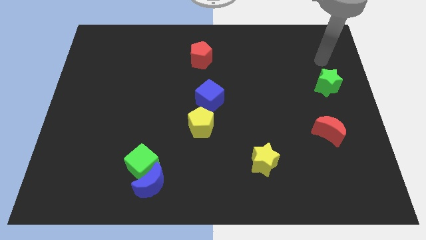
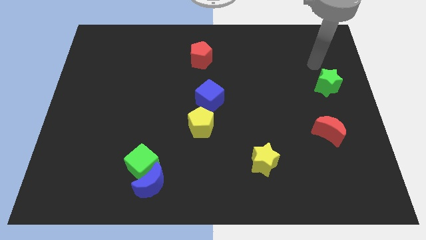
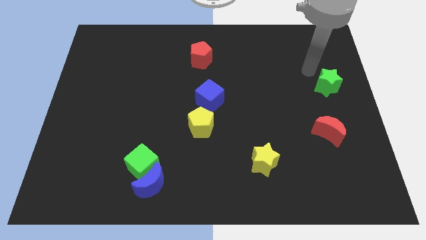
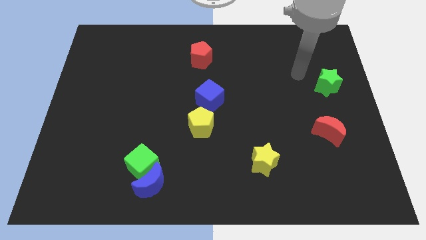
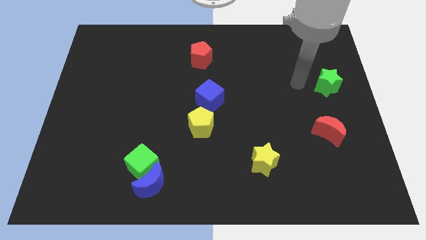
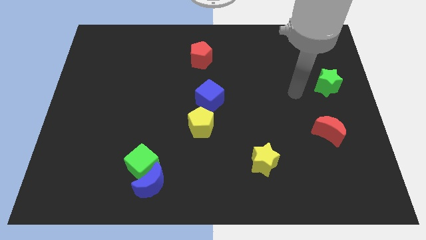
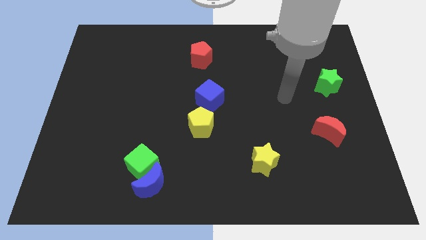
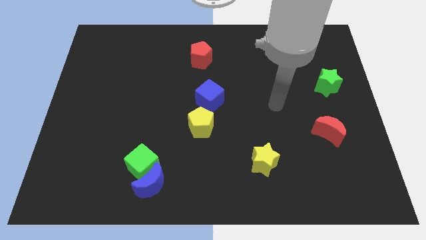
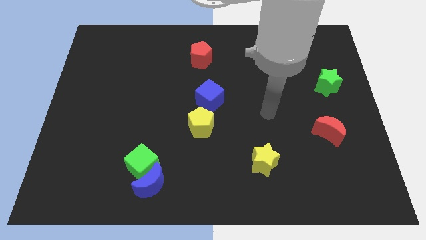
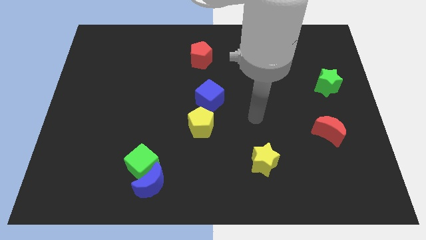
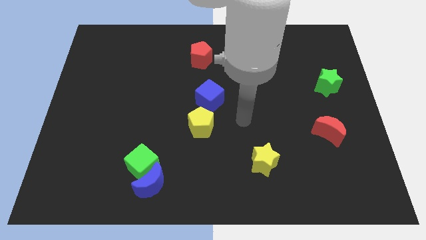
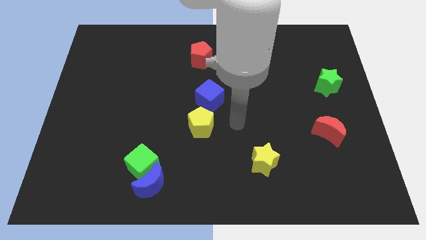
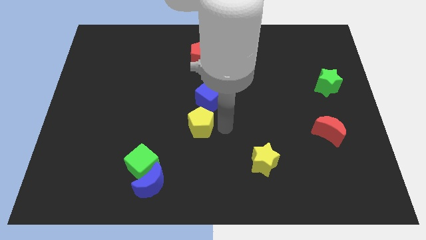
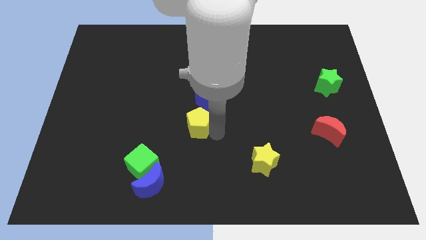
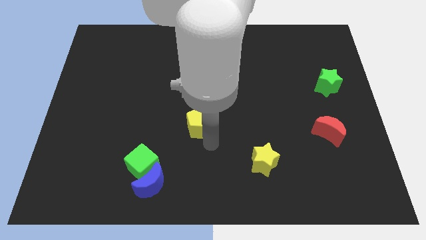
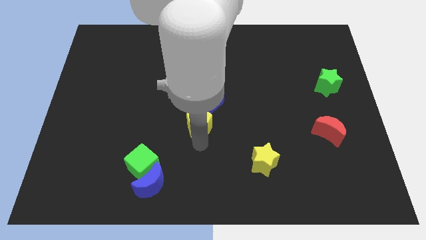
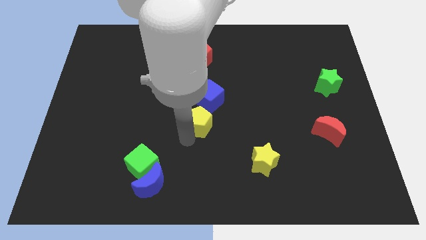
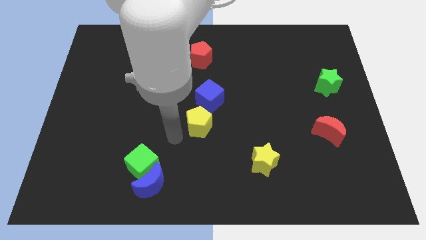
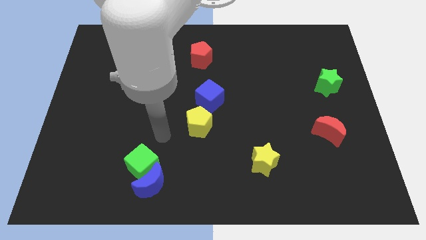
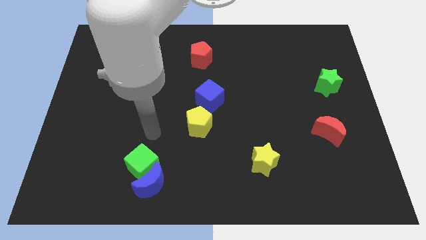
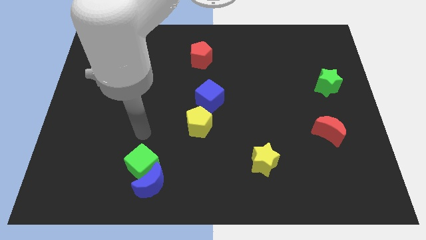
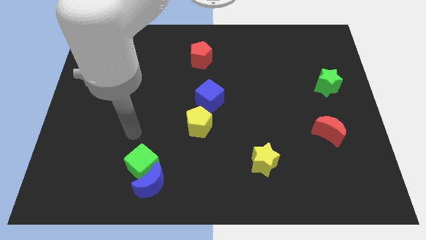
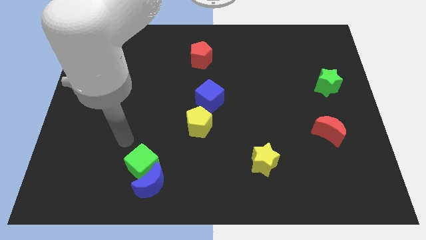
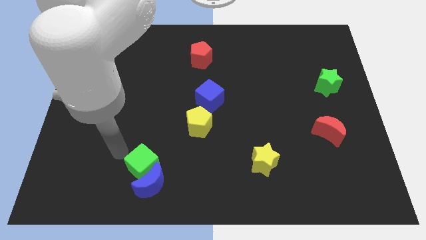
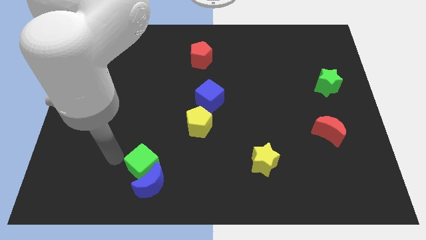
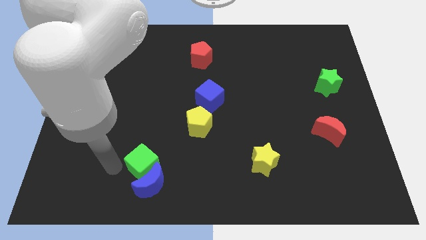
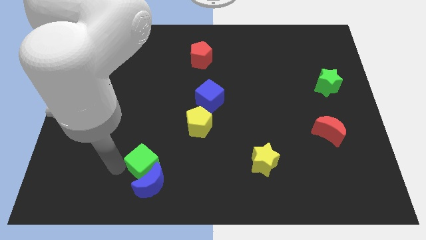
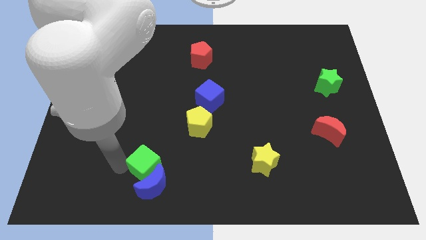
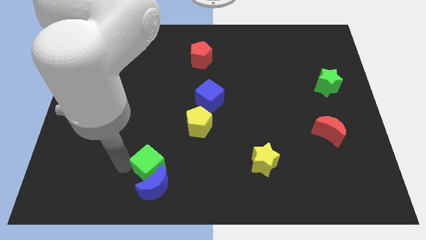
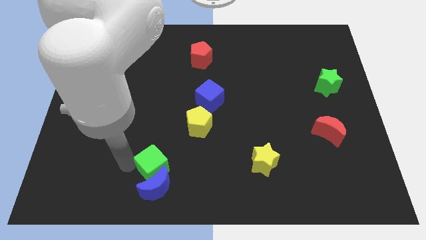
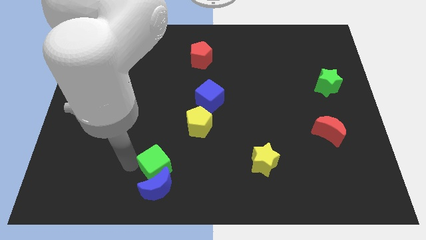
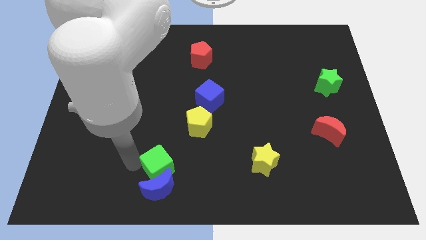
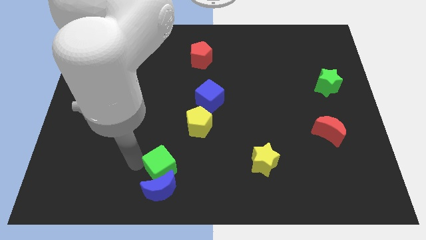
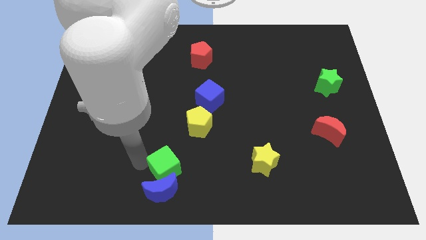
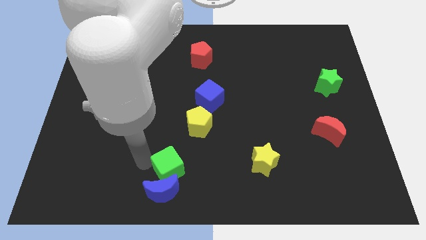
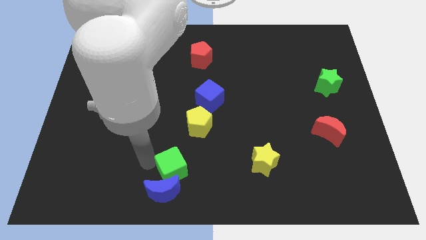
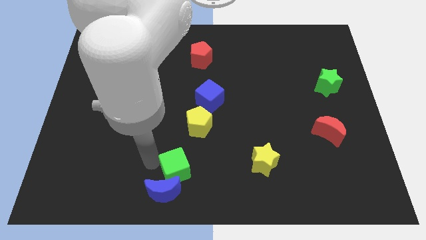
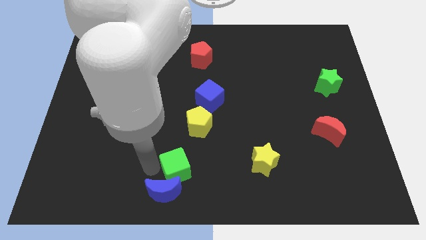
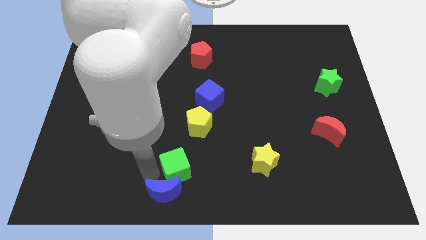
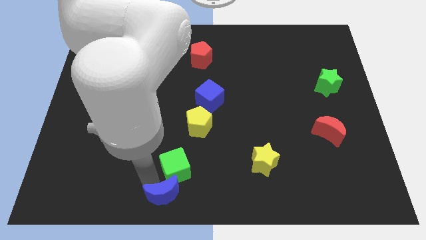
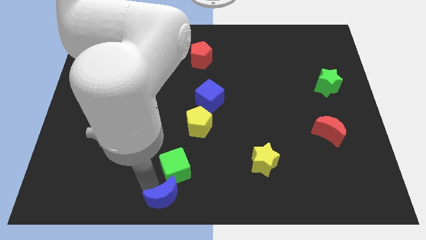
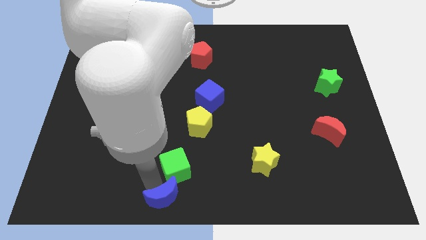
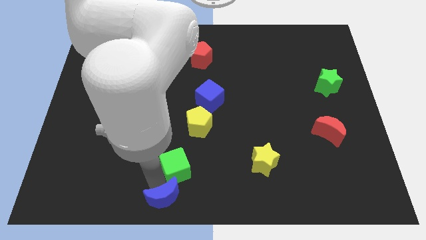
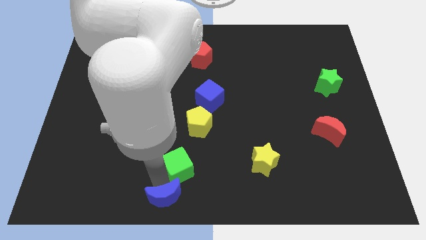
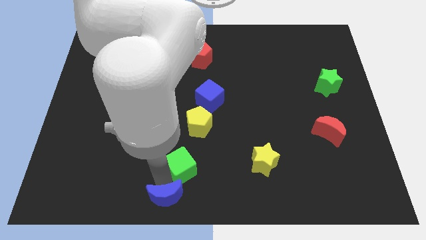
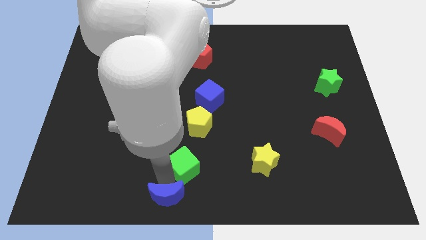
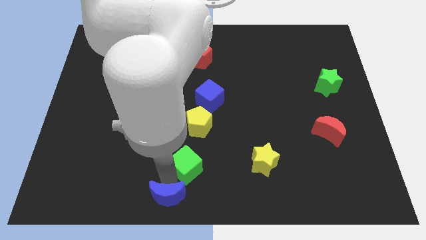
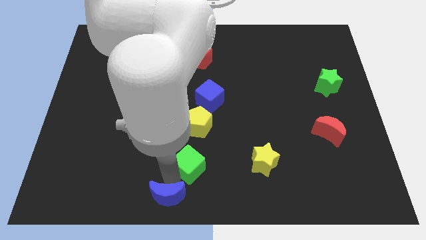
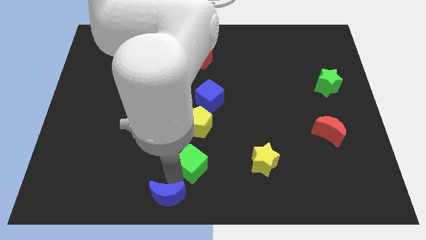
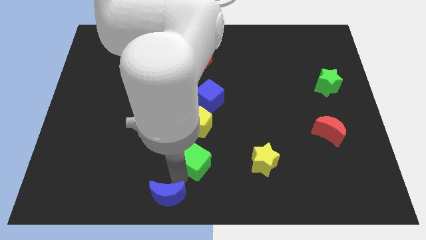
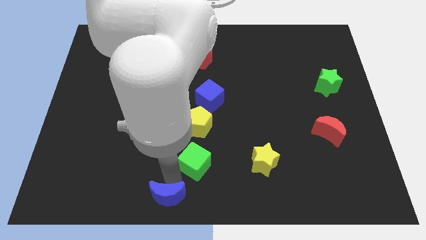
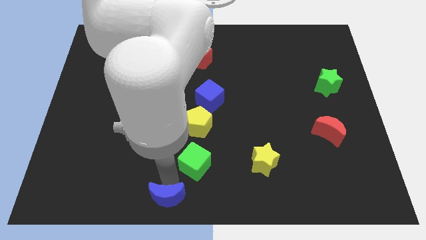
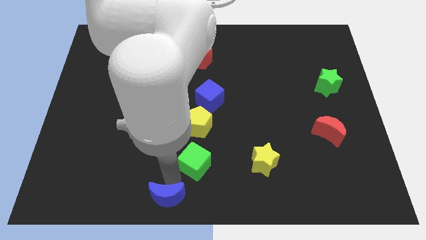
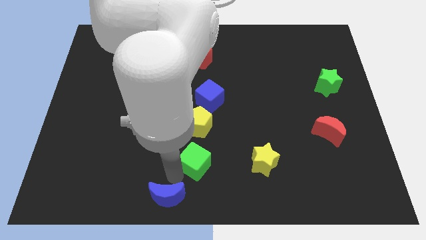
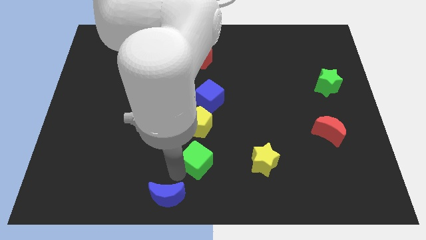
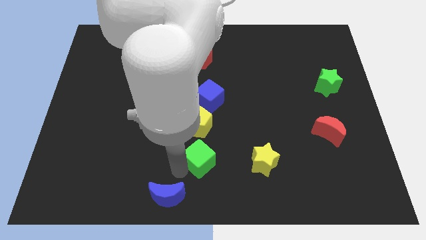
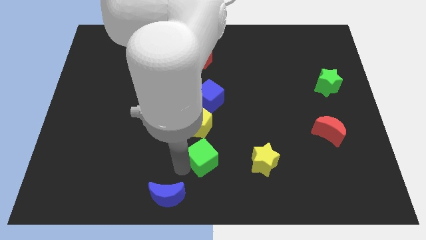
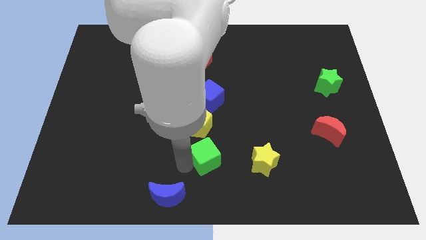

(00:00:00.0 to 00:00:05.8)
put the green cube to the bottom right side of the yellow pentagon

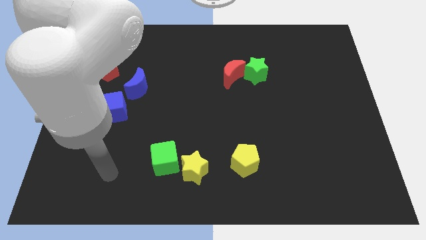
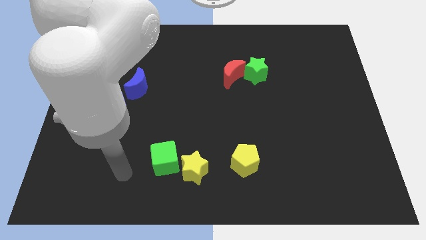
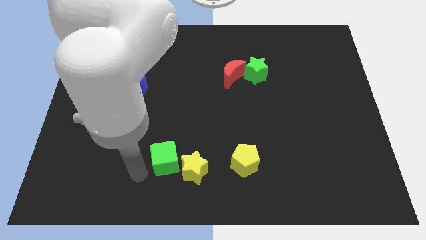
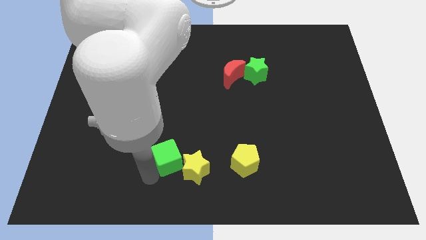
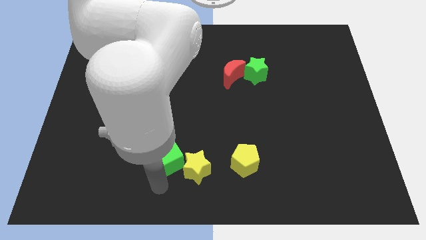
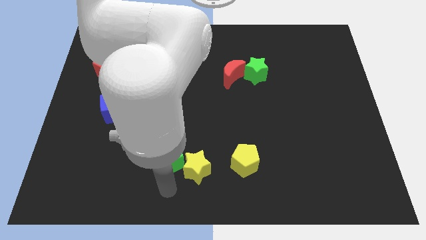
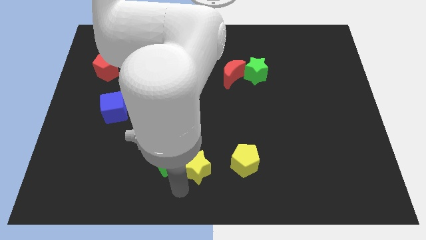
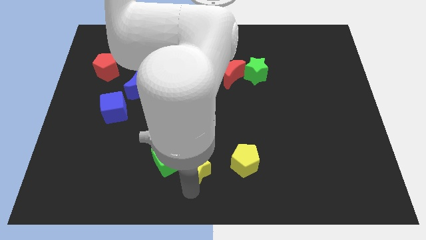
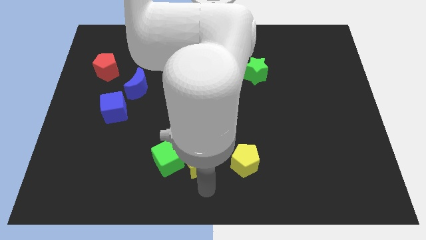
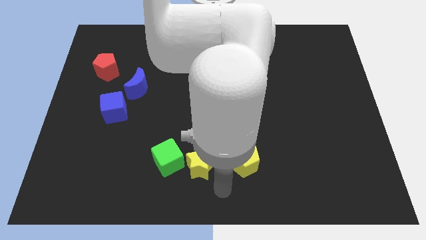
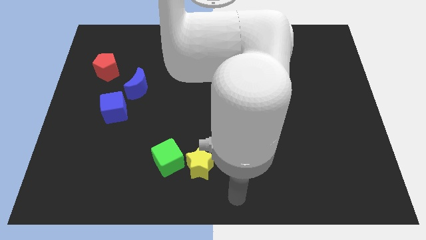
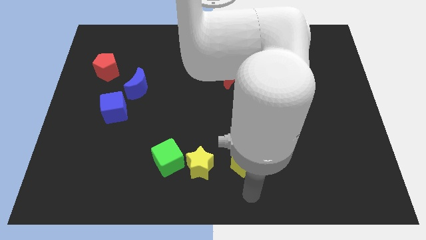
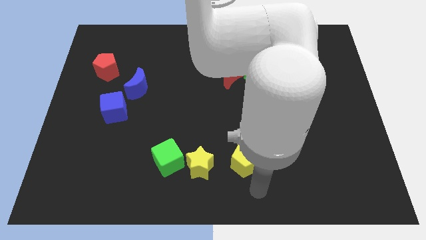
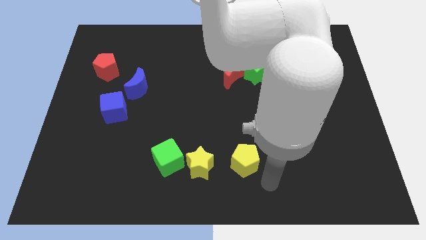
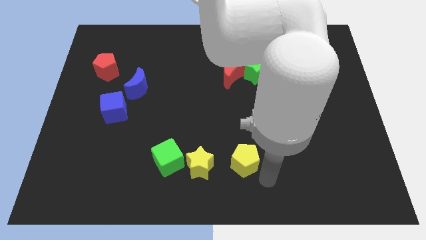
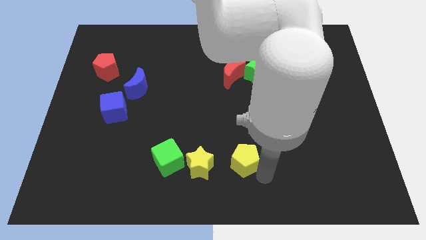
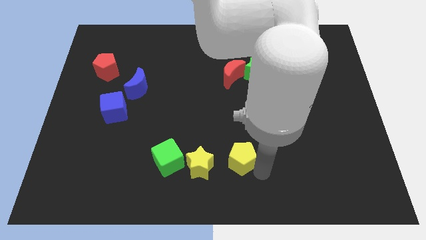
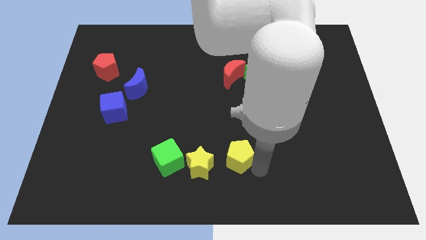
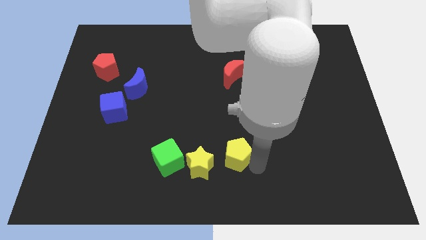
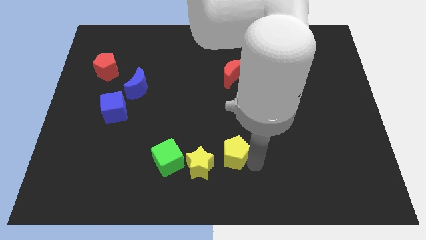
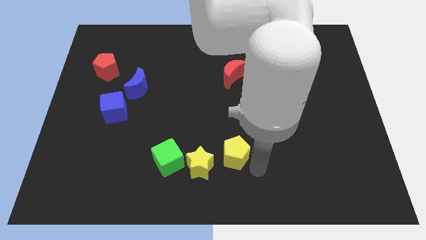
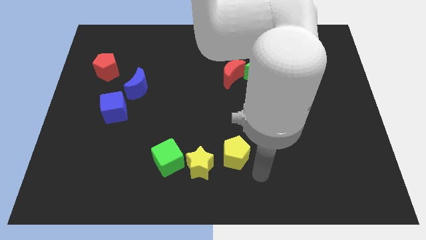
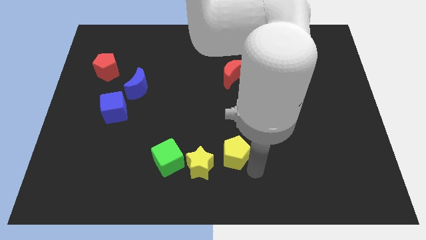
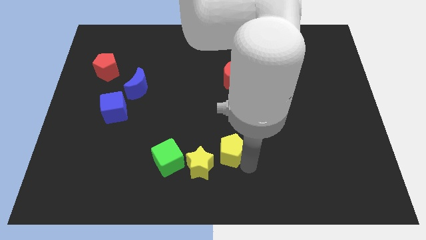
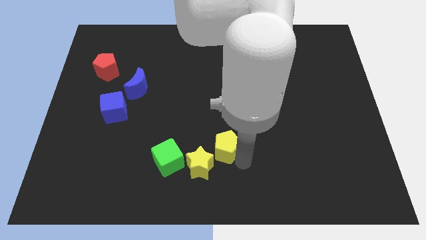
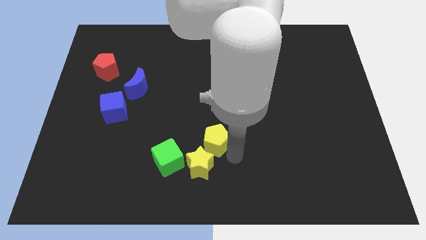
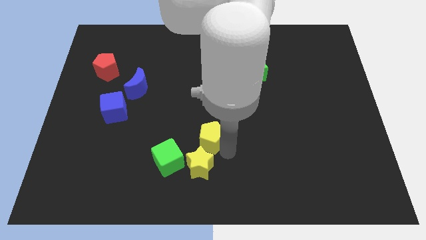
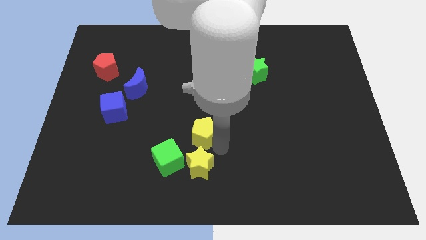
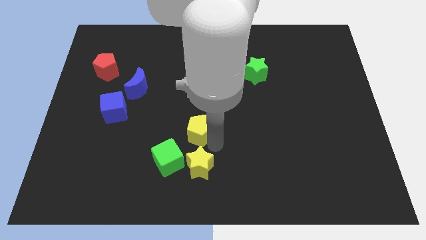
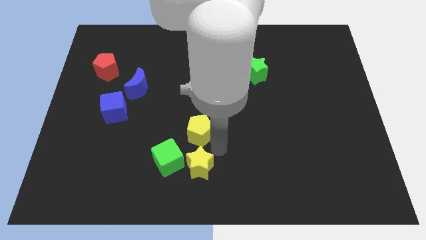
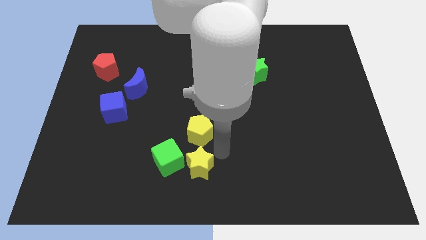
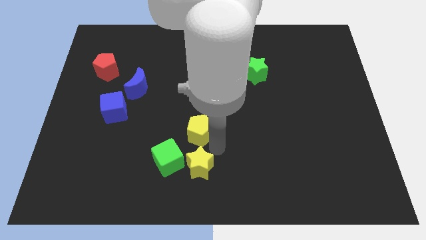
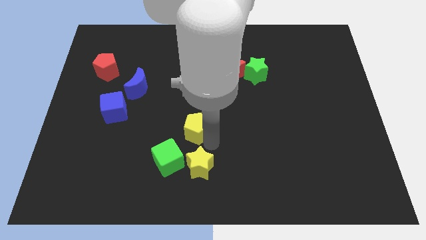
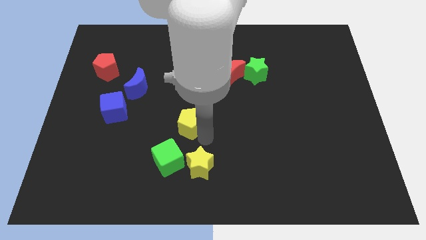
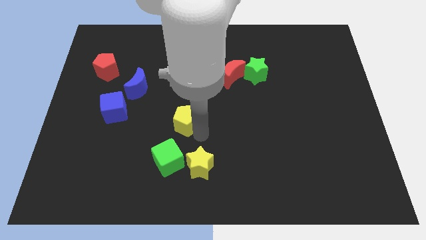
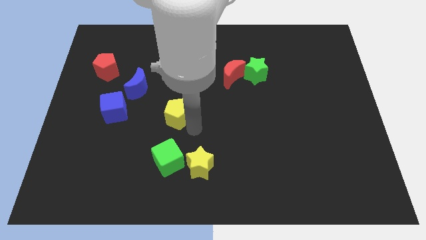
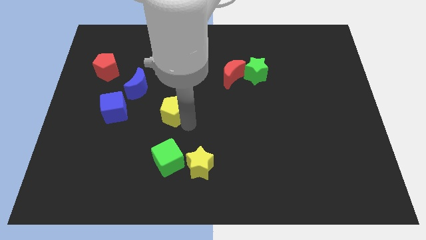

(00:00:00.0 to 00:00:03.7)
put the yellow pentagon to the bottom right side of the blue moon
